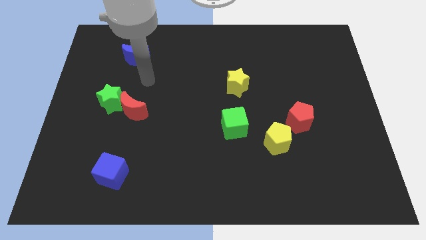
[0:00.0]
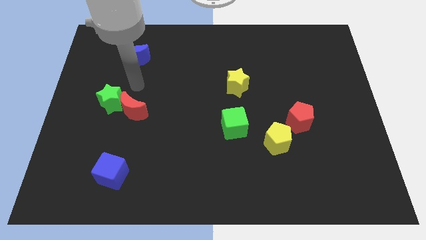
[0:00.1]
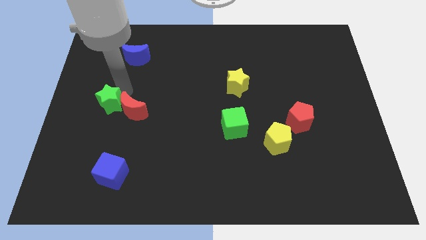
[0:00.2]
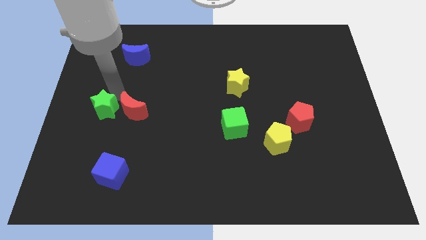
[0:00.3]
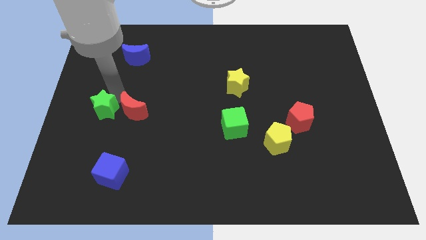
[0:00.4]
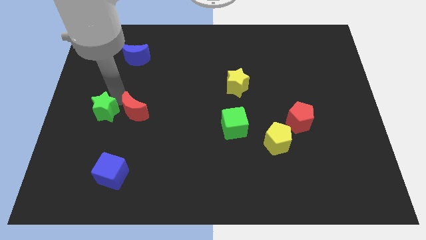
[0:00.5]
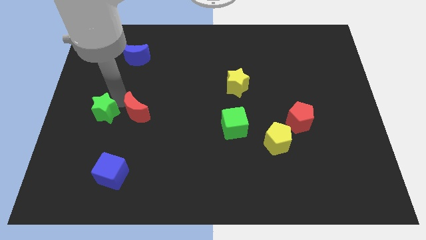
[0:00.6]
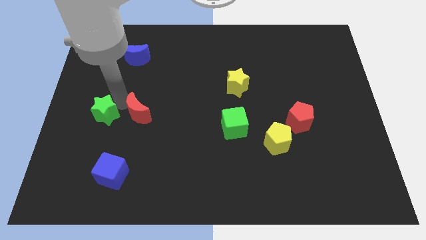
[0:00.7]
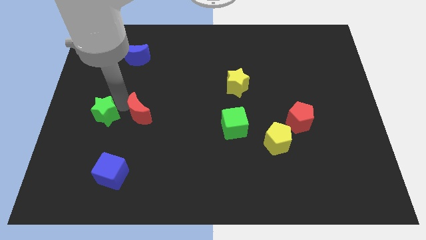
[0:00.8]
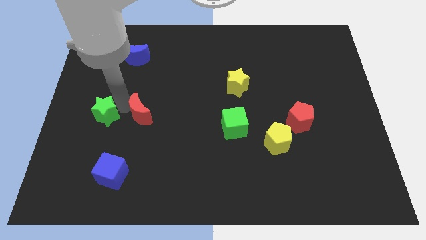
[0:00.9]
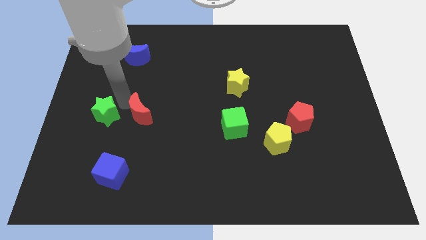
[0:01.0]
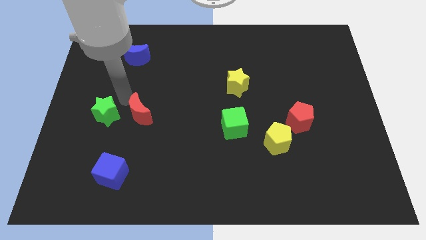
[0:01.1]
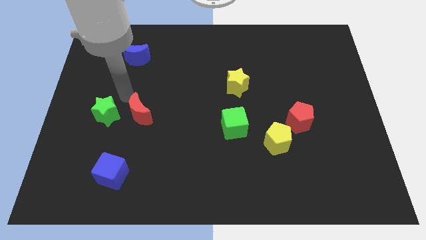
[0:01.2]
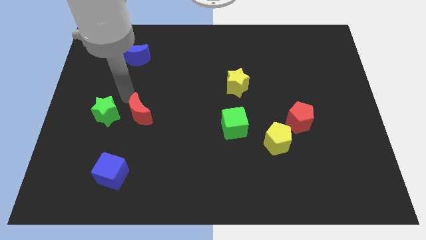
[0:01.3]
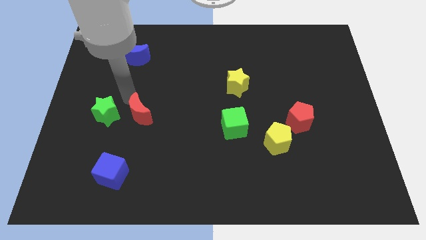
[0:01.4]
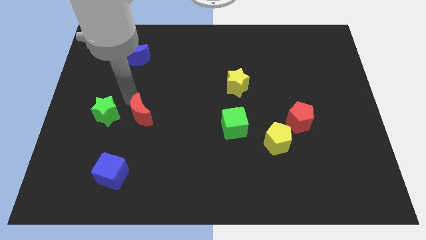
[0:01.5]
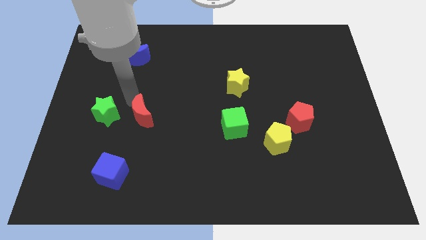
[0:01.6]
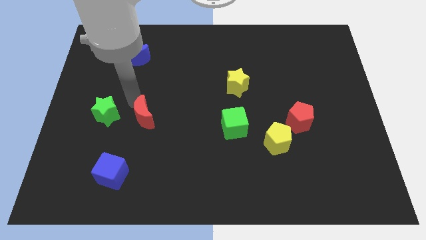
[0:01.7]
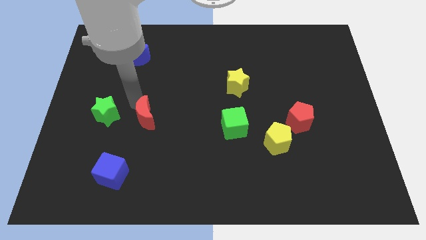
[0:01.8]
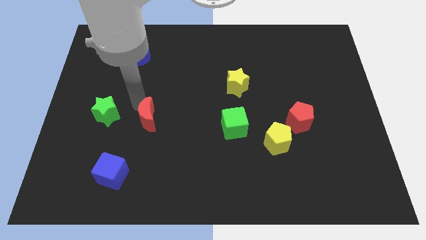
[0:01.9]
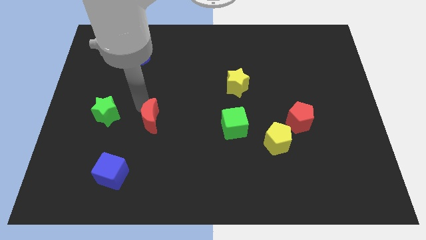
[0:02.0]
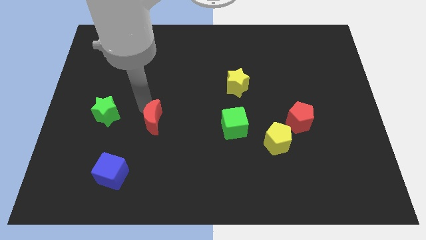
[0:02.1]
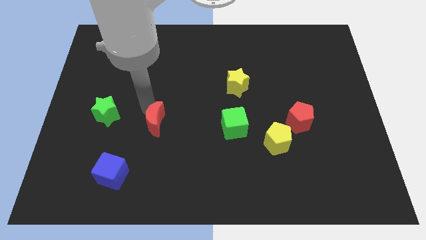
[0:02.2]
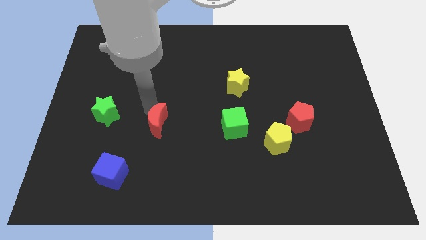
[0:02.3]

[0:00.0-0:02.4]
push the red moon somewhat diagonally downwards and right

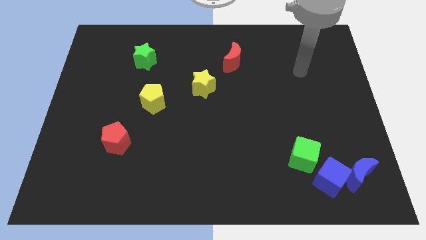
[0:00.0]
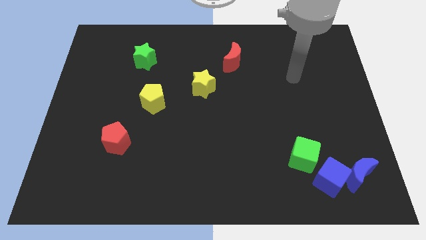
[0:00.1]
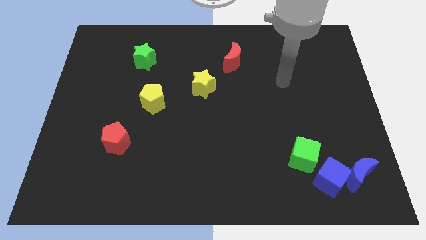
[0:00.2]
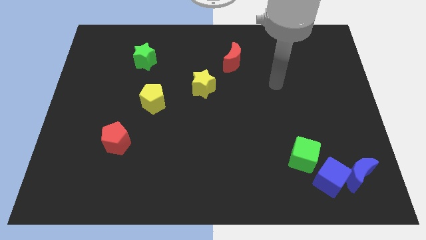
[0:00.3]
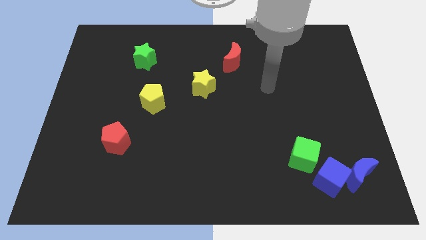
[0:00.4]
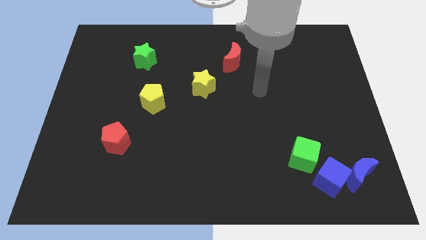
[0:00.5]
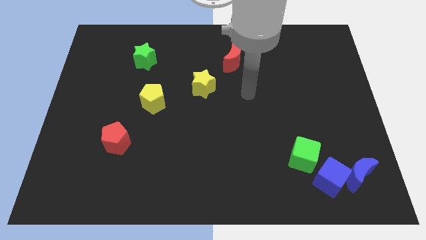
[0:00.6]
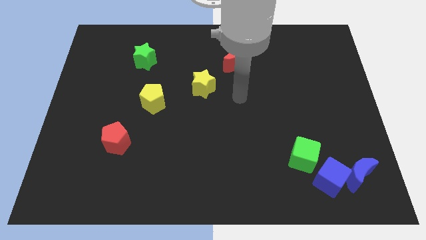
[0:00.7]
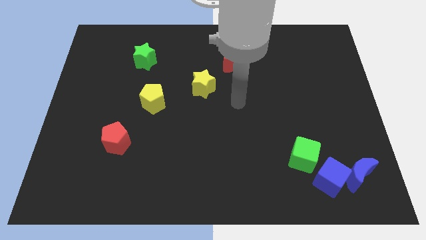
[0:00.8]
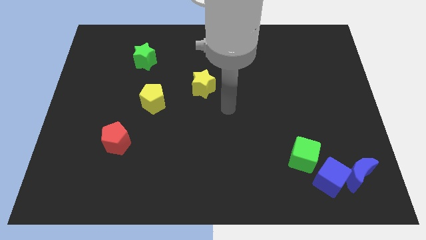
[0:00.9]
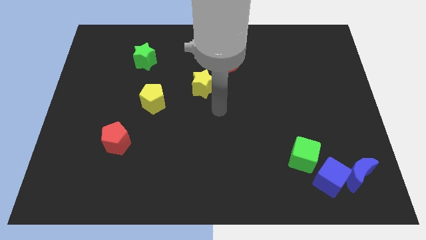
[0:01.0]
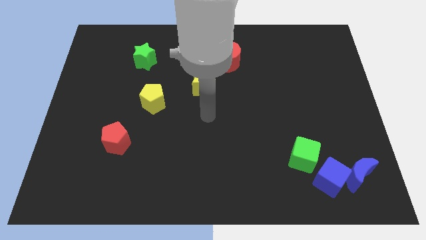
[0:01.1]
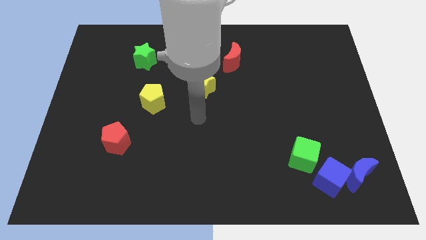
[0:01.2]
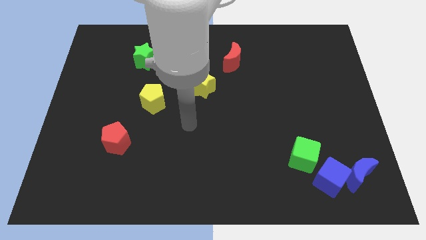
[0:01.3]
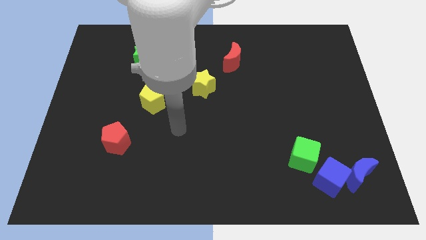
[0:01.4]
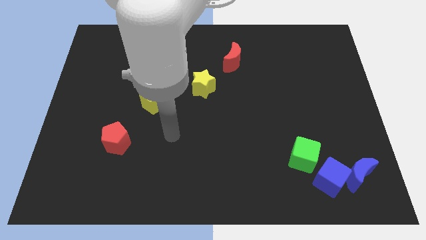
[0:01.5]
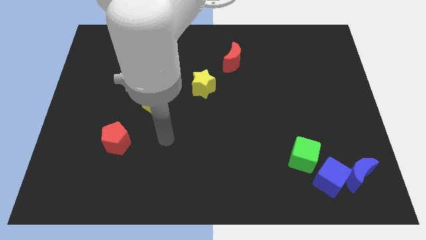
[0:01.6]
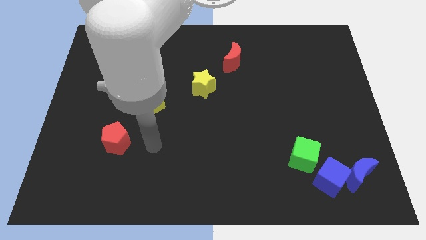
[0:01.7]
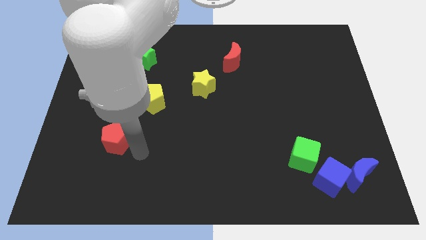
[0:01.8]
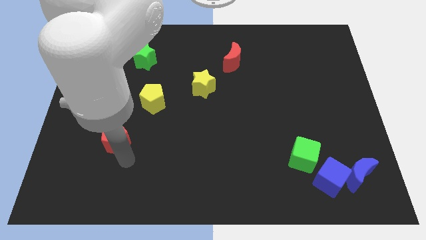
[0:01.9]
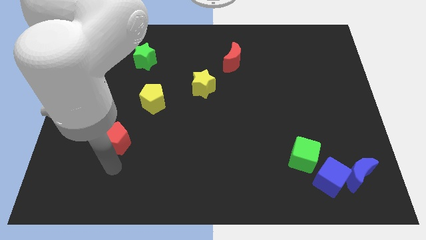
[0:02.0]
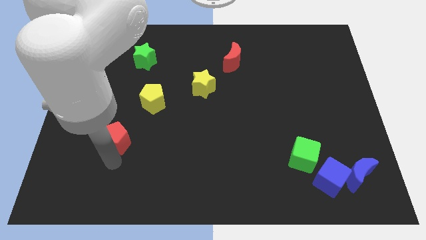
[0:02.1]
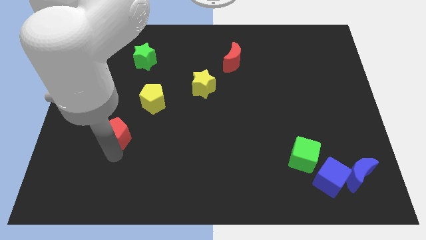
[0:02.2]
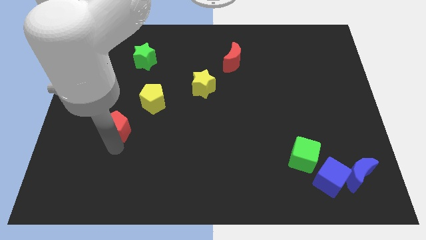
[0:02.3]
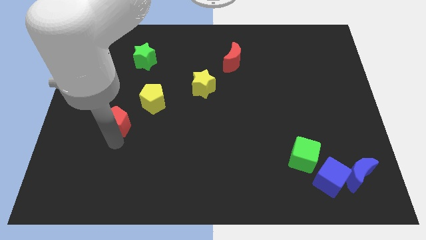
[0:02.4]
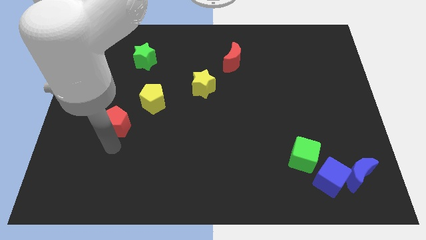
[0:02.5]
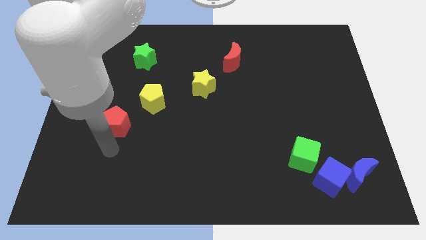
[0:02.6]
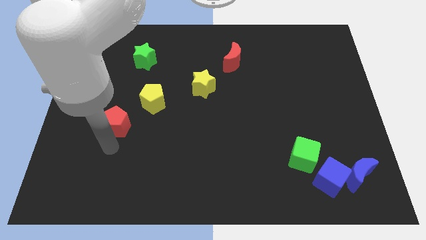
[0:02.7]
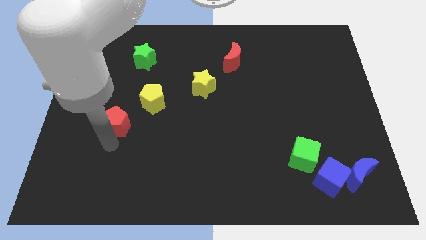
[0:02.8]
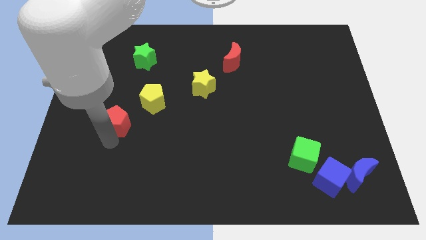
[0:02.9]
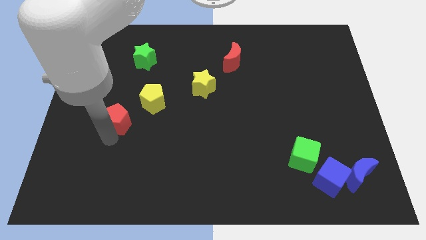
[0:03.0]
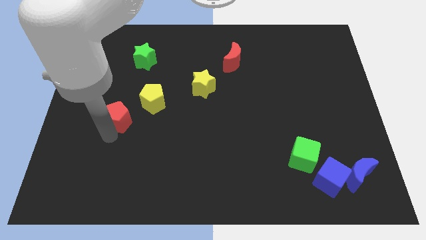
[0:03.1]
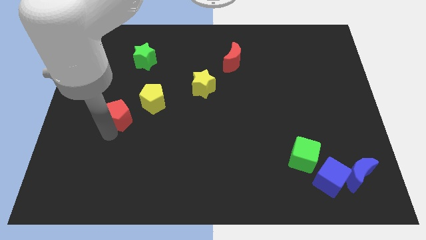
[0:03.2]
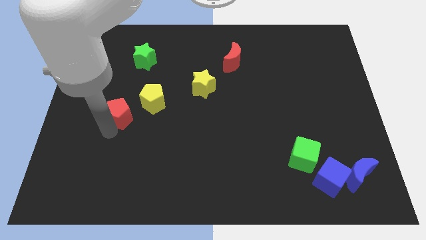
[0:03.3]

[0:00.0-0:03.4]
slide the red pentagon upwards a little

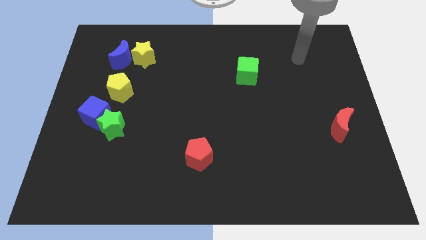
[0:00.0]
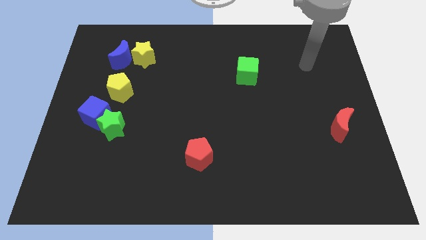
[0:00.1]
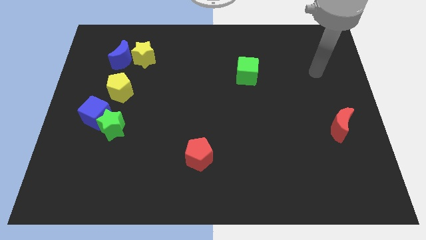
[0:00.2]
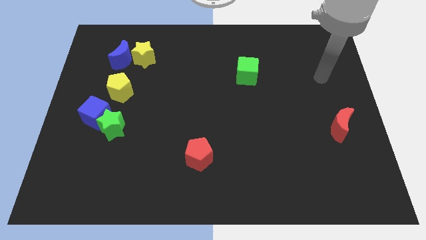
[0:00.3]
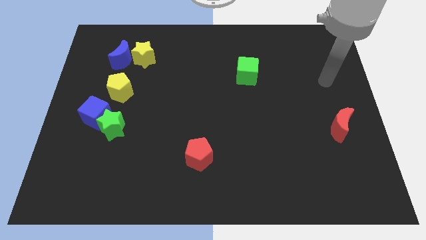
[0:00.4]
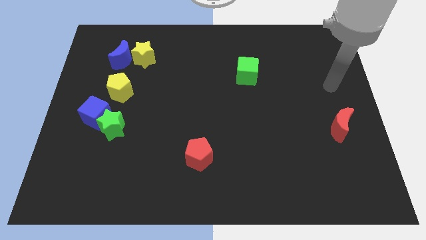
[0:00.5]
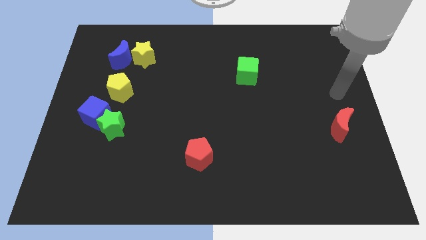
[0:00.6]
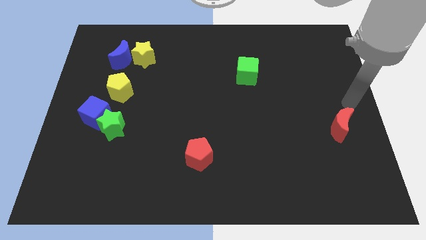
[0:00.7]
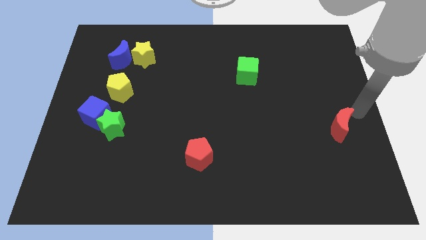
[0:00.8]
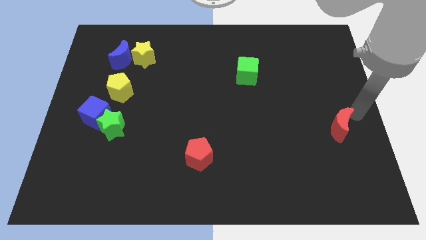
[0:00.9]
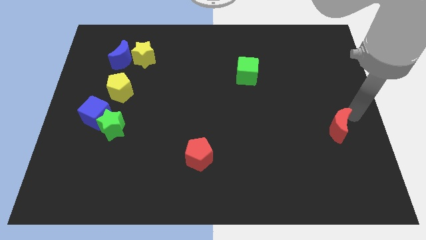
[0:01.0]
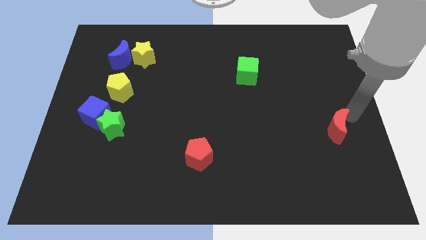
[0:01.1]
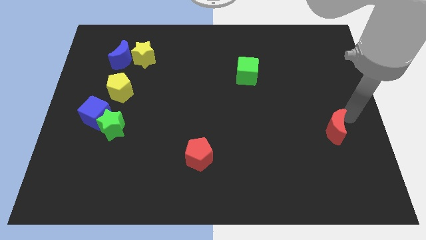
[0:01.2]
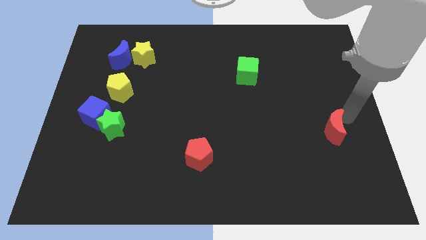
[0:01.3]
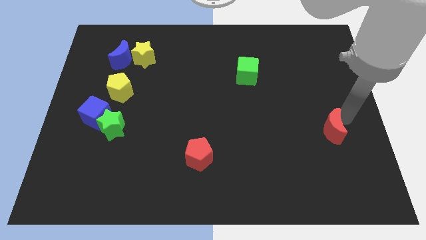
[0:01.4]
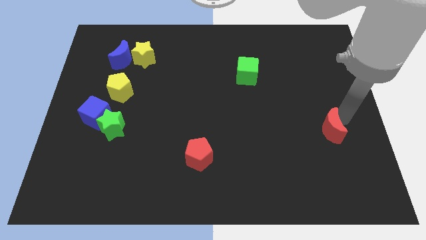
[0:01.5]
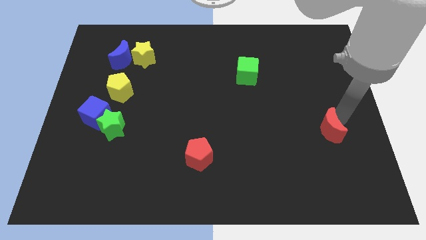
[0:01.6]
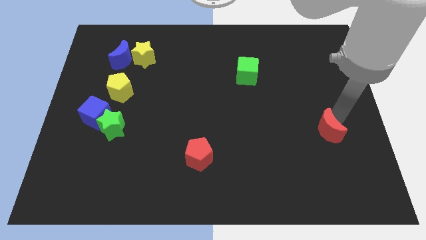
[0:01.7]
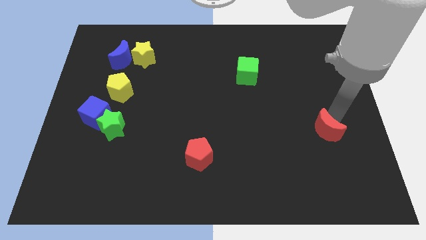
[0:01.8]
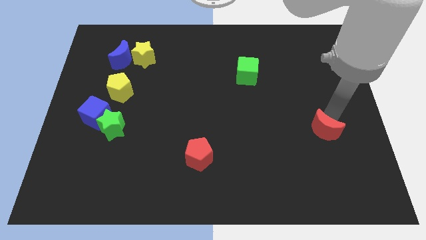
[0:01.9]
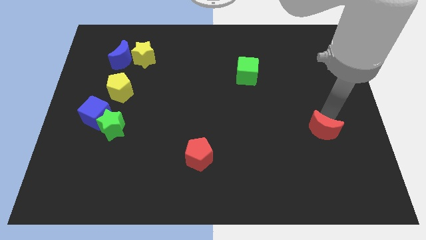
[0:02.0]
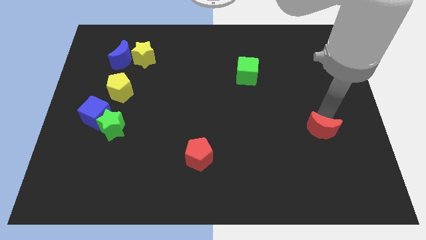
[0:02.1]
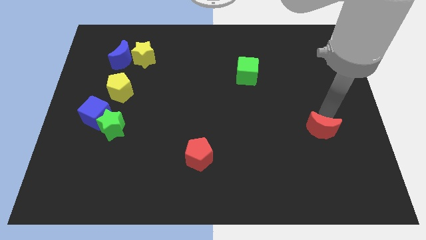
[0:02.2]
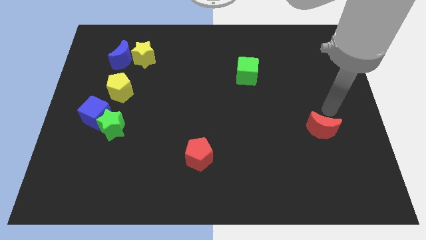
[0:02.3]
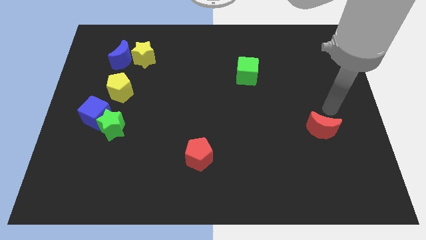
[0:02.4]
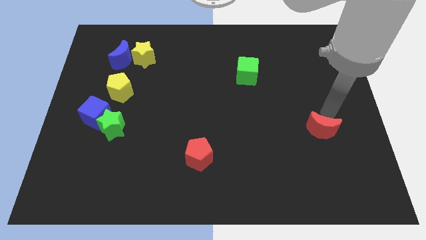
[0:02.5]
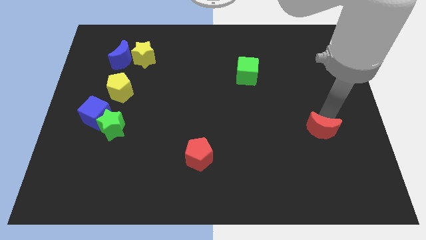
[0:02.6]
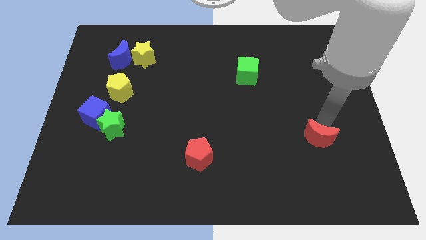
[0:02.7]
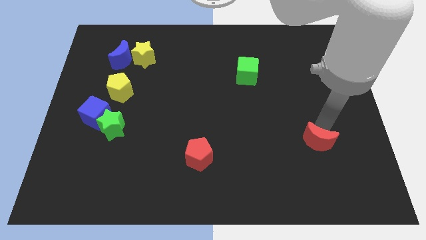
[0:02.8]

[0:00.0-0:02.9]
slightly move the red moon diagonally down and to the left
